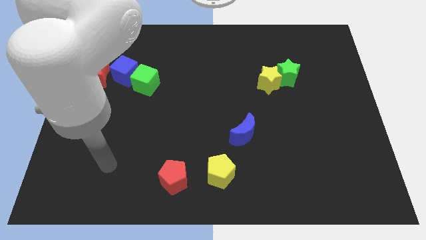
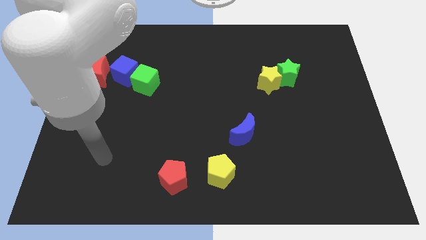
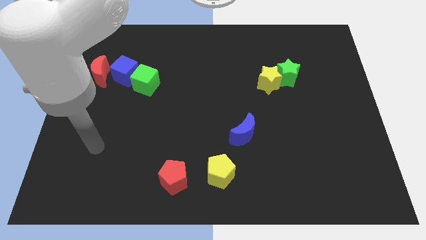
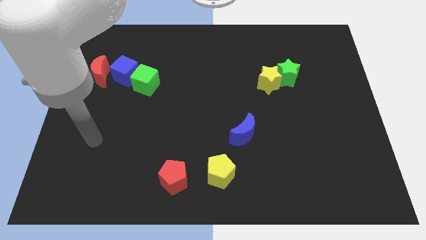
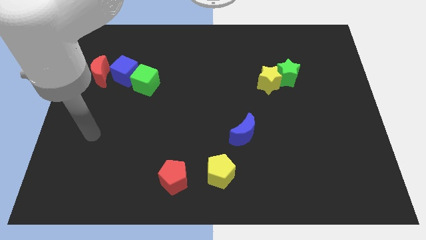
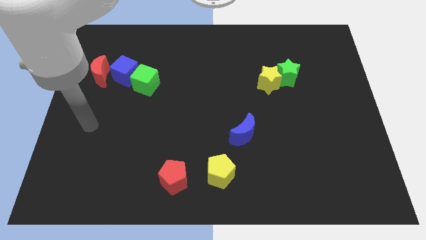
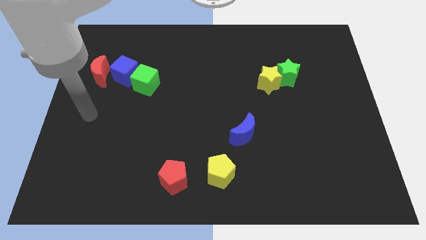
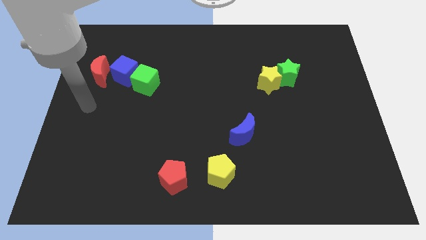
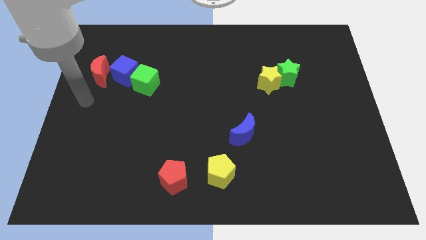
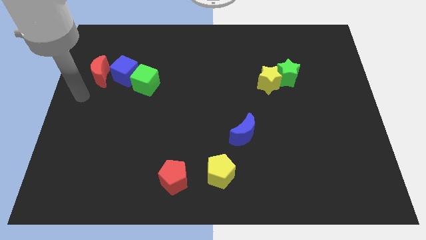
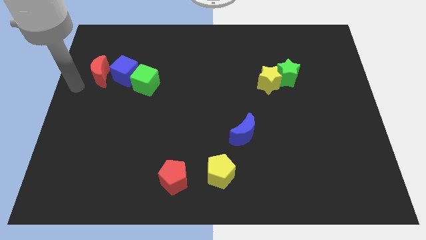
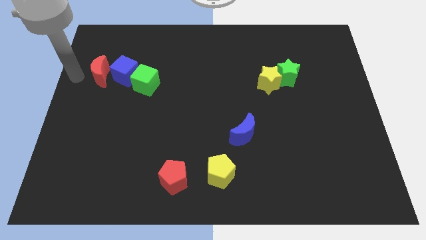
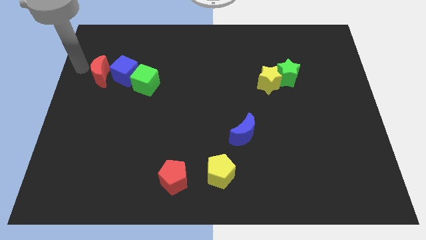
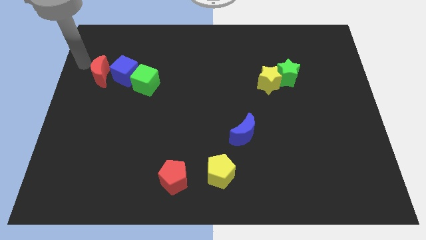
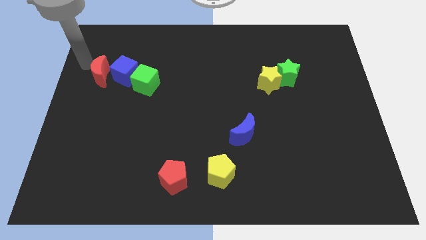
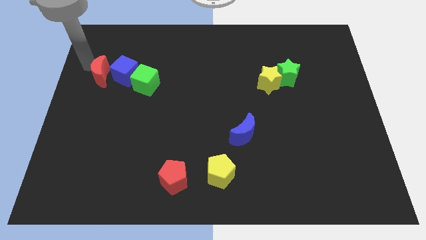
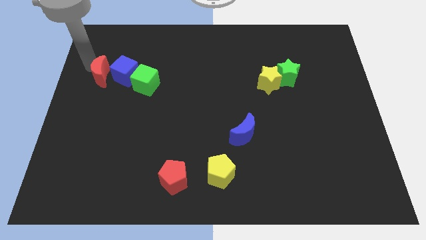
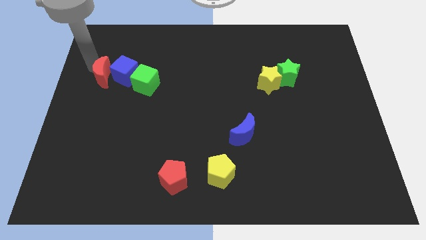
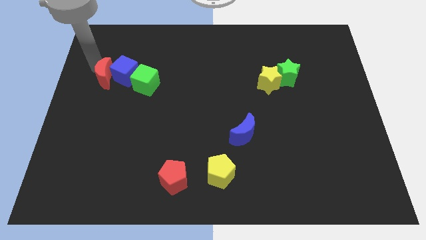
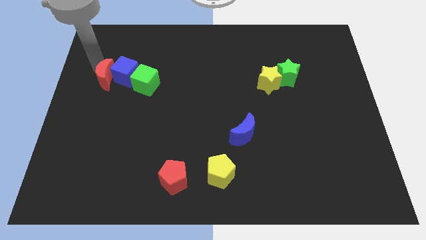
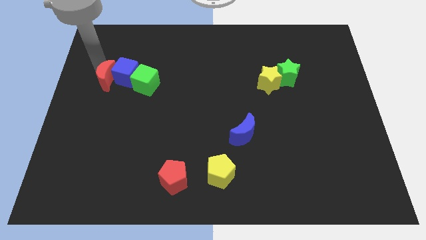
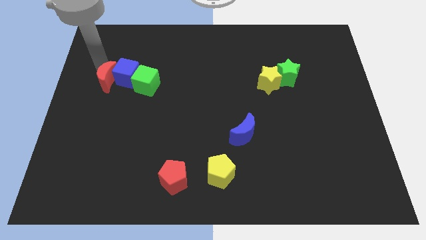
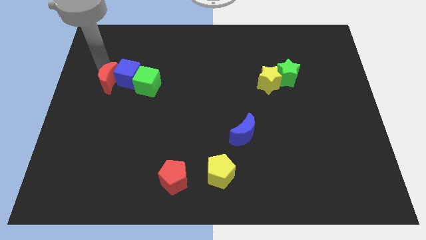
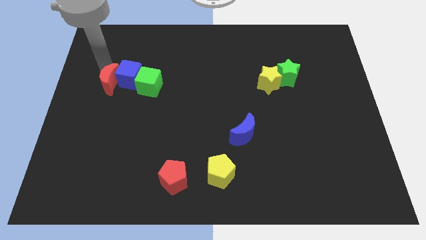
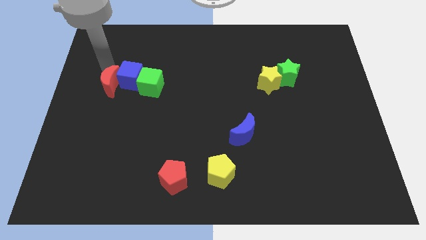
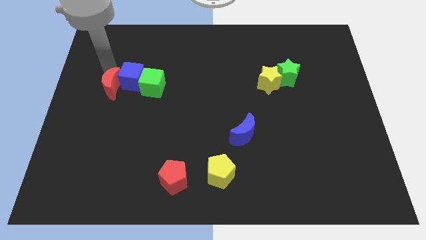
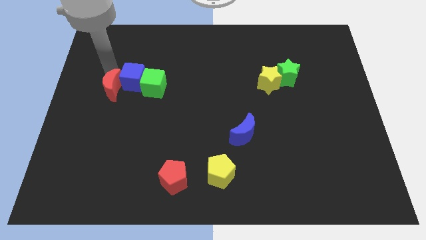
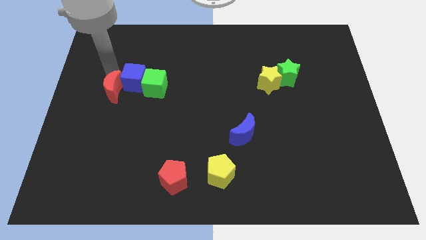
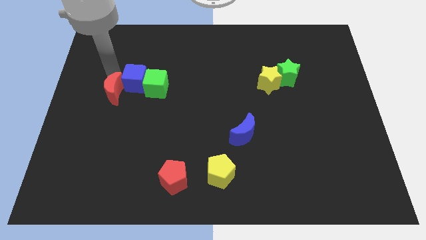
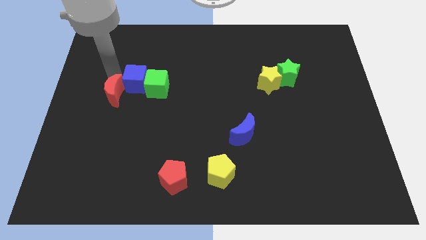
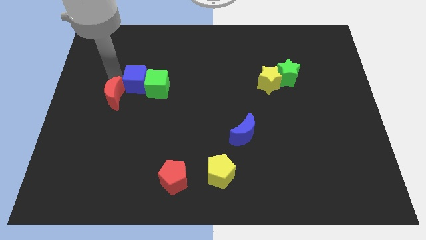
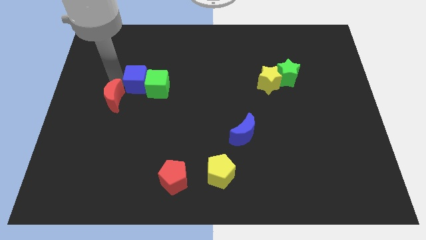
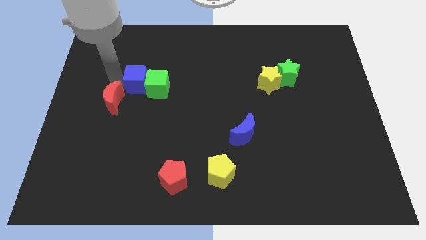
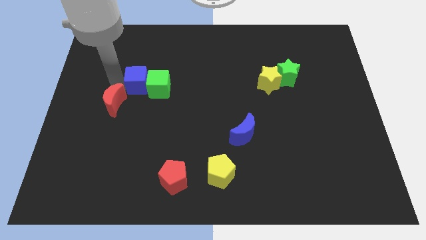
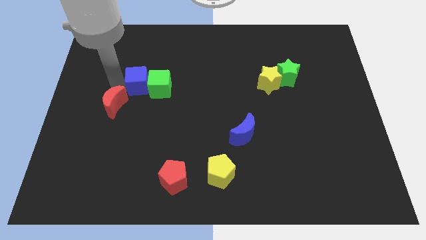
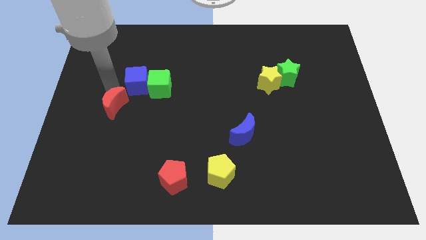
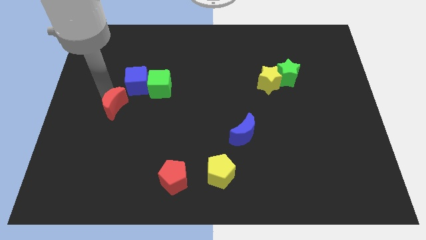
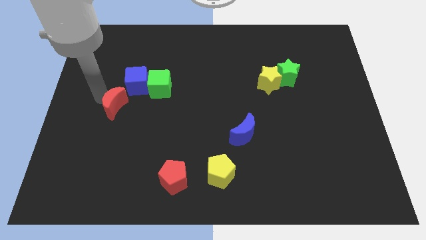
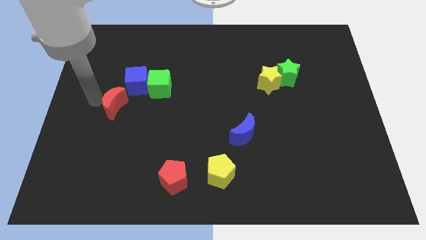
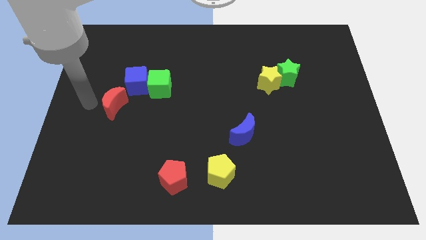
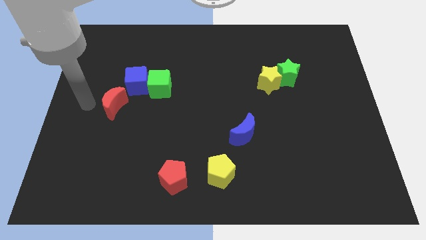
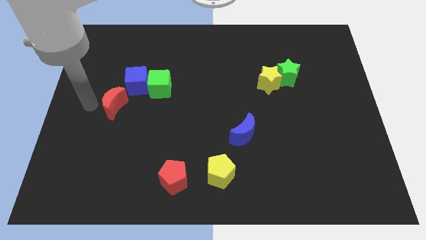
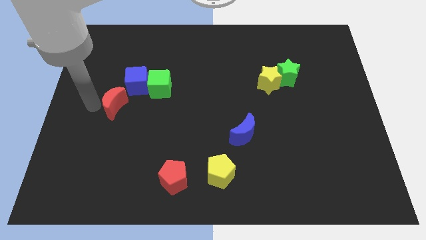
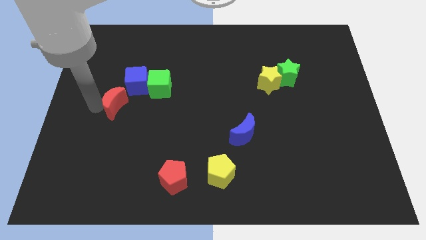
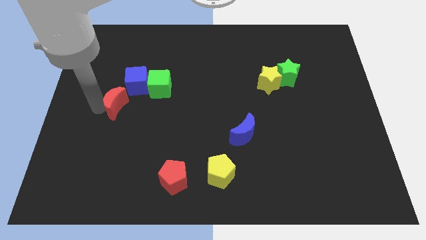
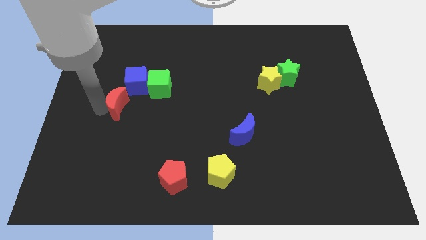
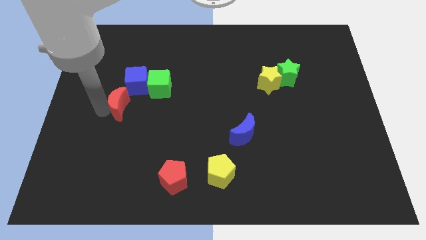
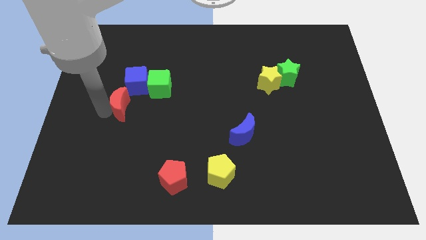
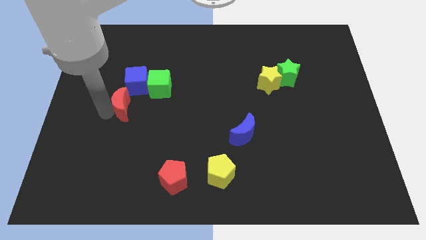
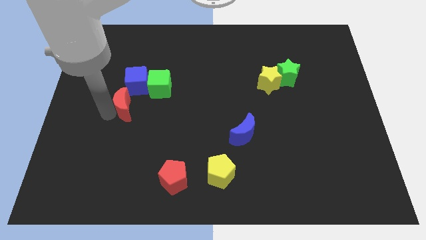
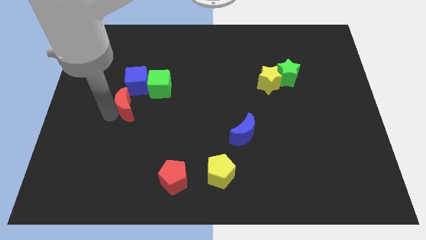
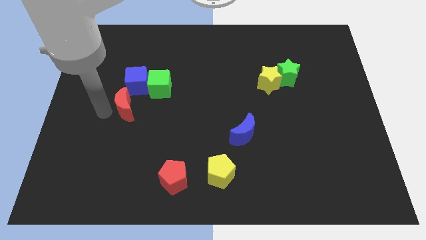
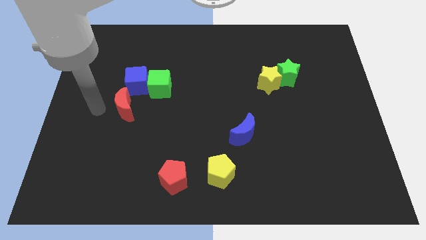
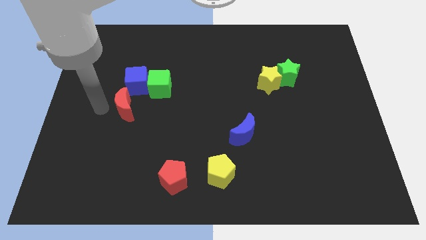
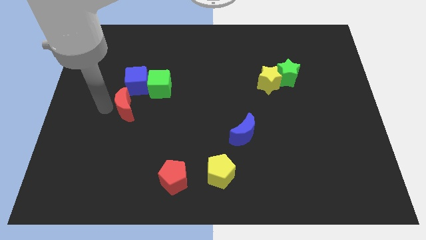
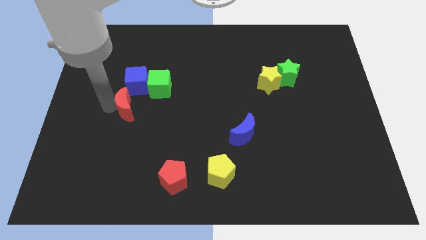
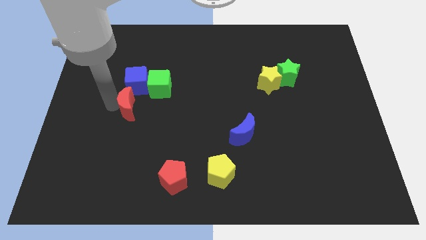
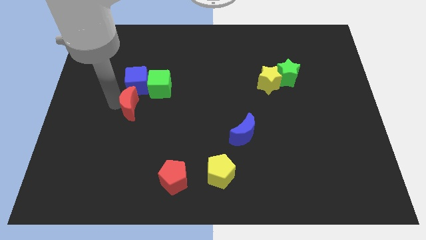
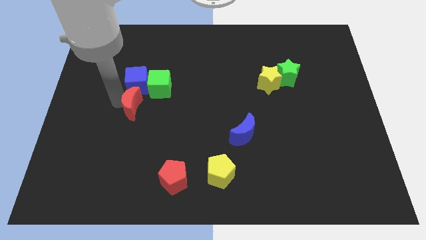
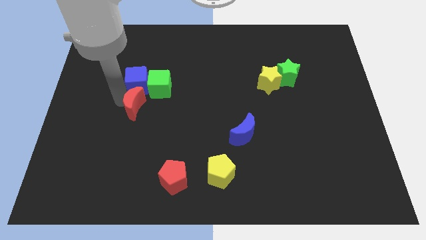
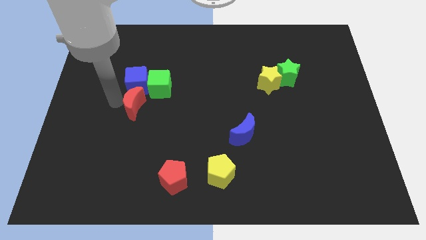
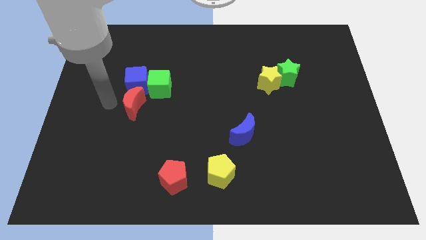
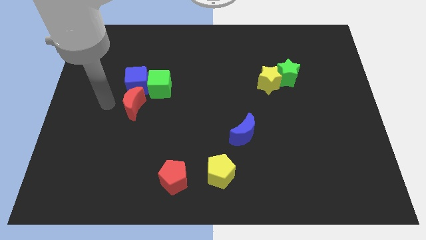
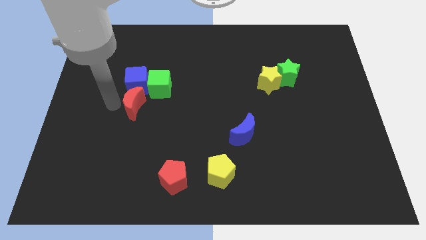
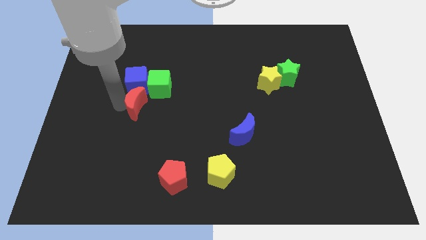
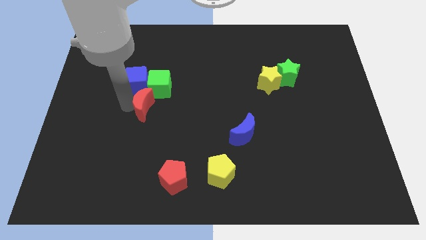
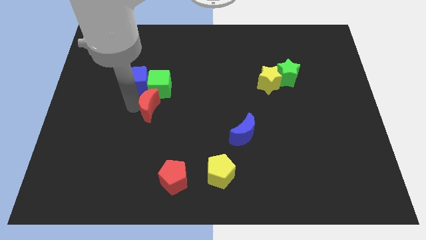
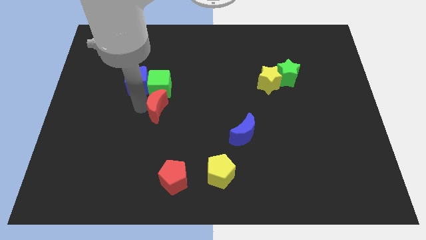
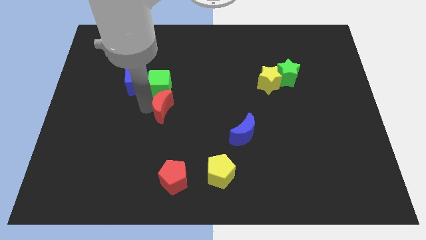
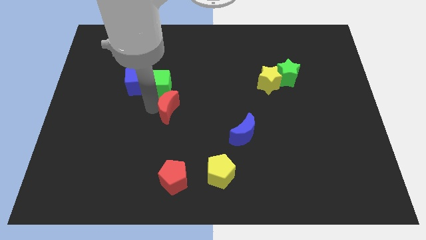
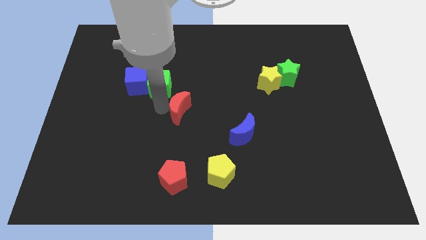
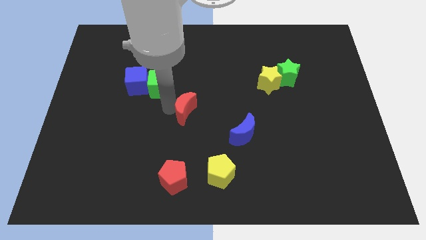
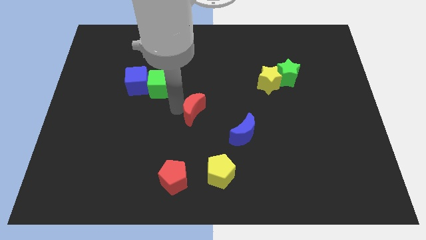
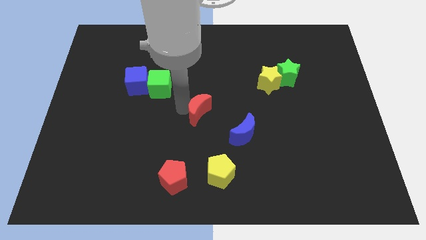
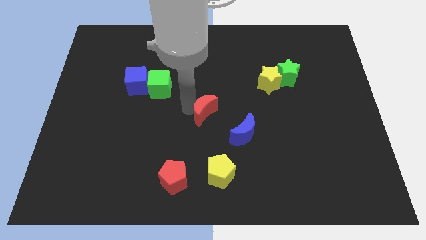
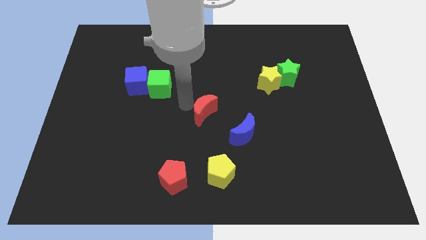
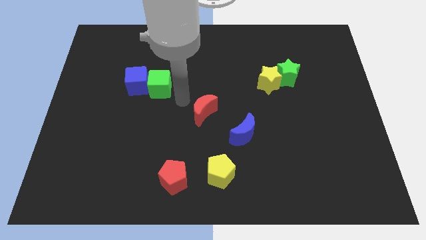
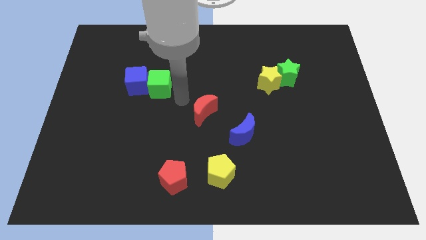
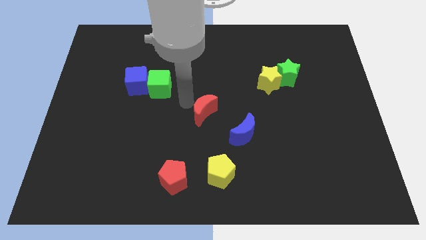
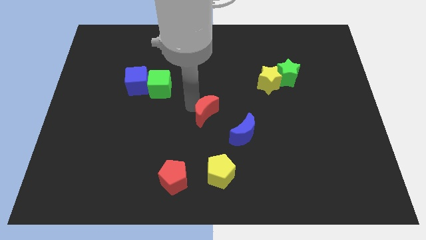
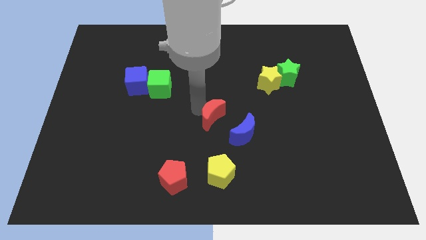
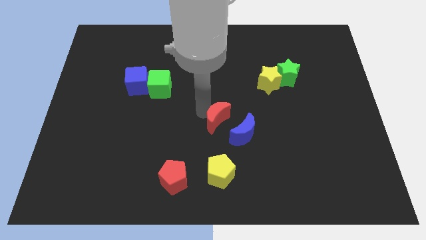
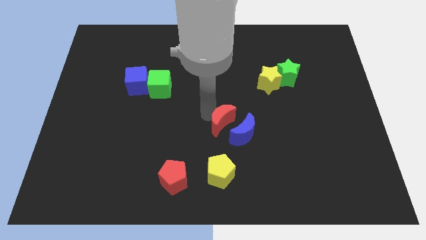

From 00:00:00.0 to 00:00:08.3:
move the red moon to the blue moon
